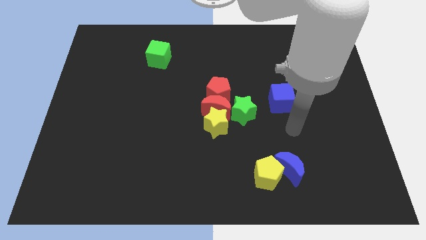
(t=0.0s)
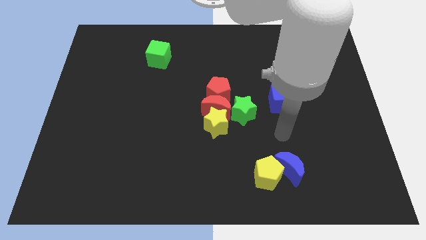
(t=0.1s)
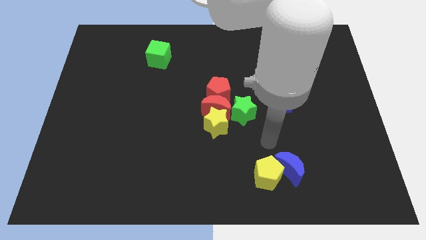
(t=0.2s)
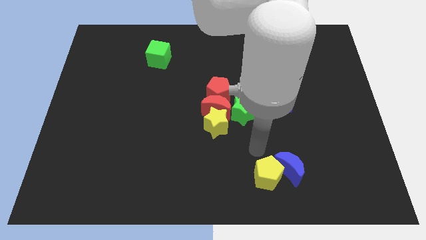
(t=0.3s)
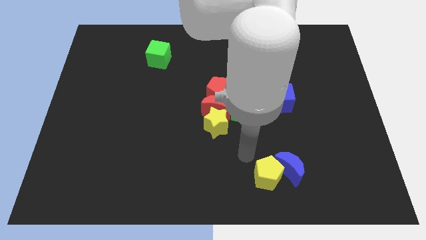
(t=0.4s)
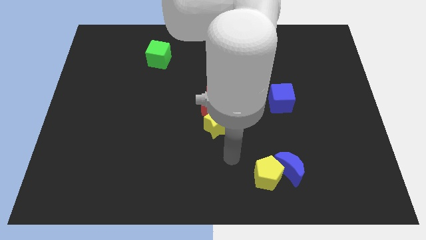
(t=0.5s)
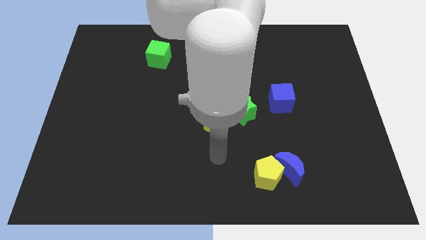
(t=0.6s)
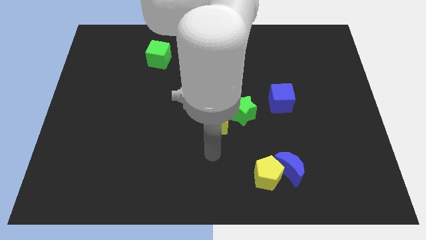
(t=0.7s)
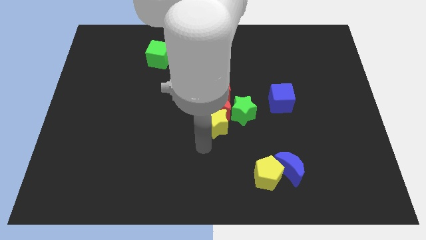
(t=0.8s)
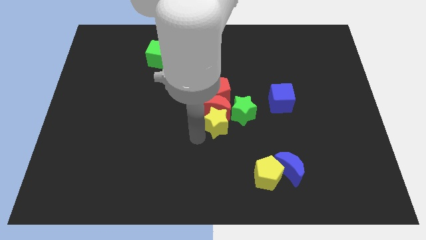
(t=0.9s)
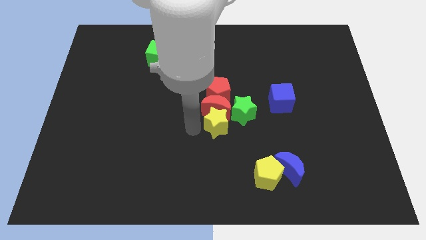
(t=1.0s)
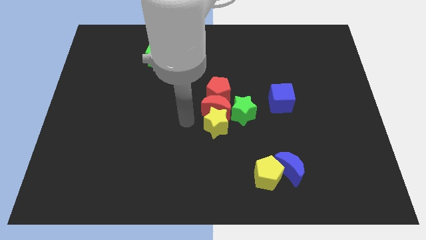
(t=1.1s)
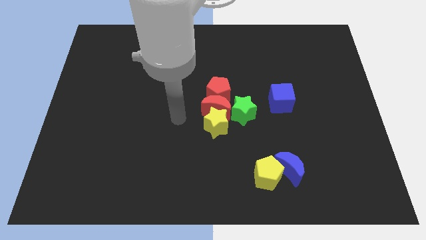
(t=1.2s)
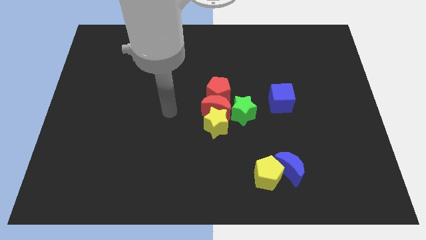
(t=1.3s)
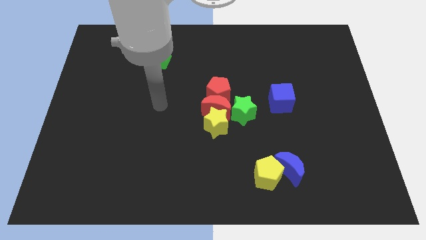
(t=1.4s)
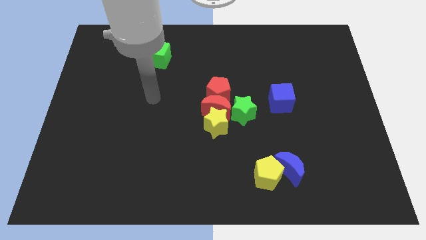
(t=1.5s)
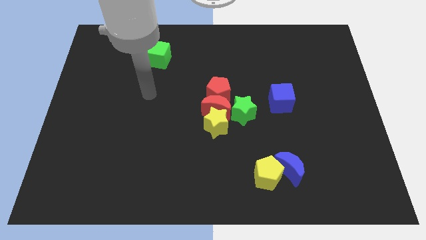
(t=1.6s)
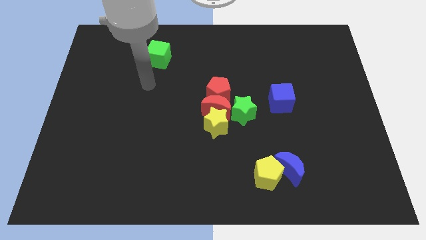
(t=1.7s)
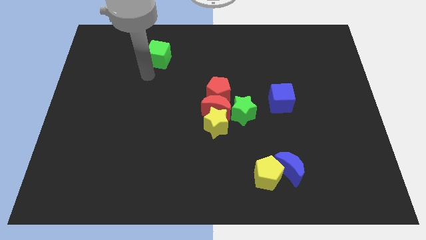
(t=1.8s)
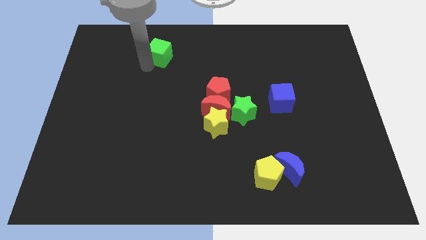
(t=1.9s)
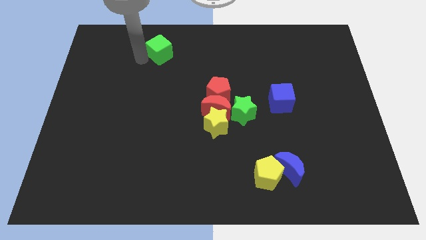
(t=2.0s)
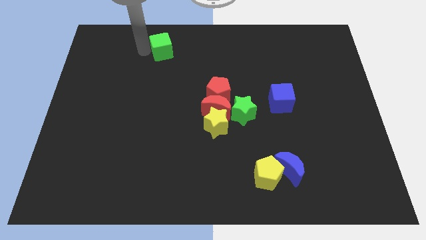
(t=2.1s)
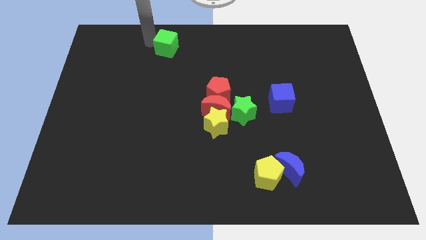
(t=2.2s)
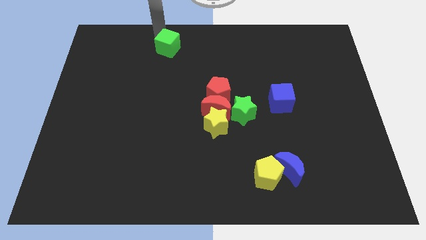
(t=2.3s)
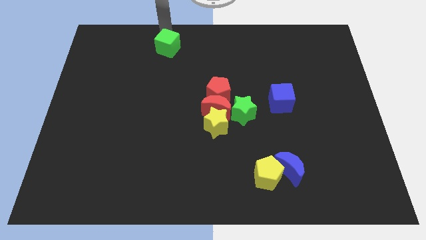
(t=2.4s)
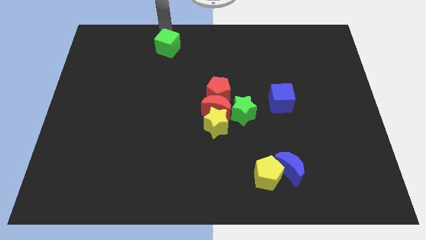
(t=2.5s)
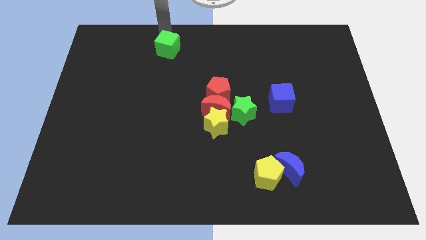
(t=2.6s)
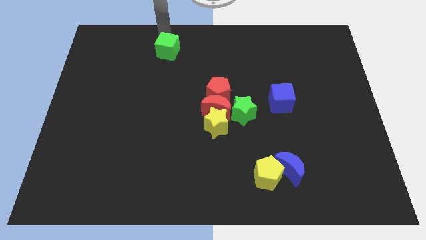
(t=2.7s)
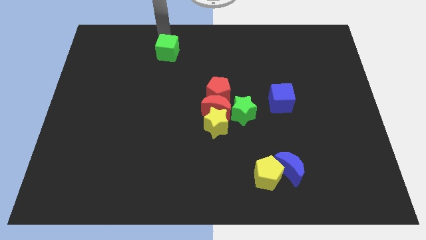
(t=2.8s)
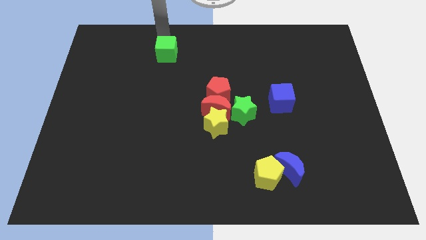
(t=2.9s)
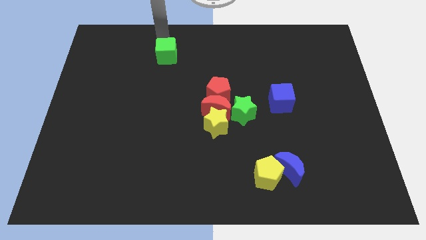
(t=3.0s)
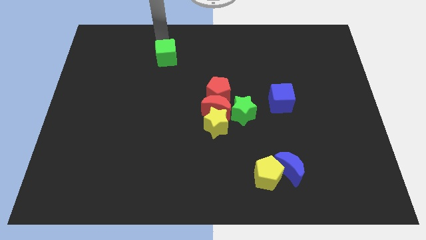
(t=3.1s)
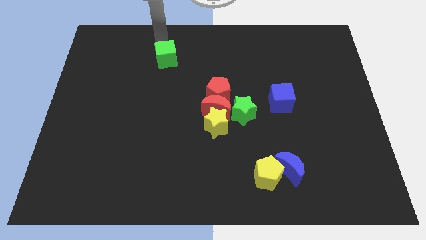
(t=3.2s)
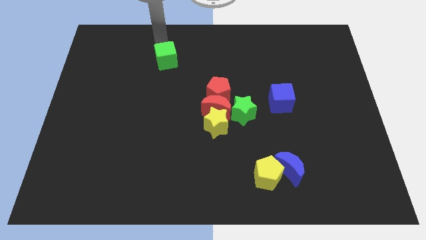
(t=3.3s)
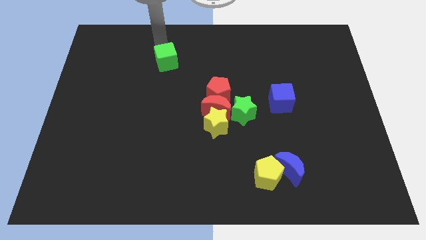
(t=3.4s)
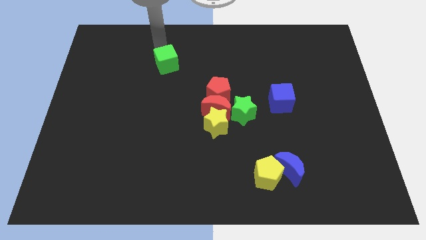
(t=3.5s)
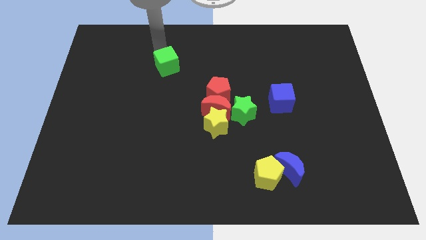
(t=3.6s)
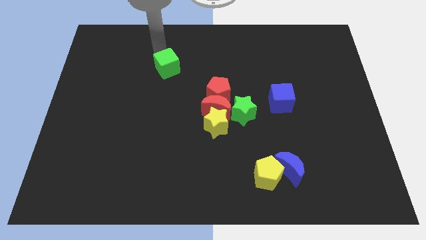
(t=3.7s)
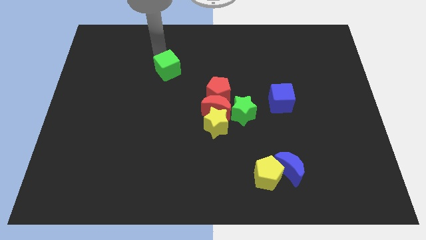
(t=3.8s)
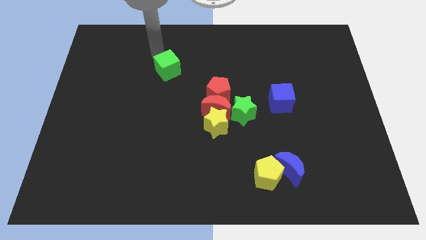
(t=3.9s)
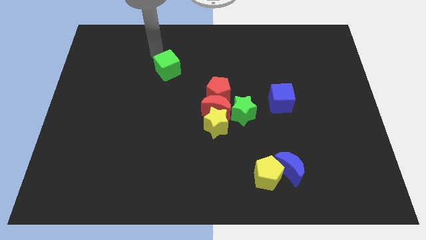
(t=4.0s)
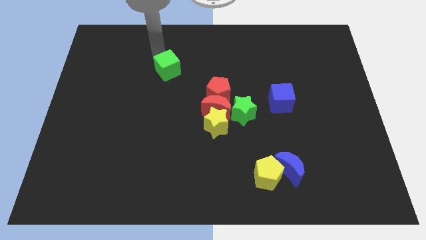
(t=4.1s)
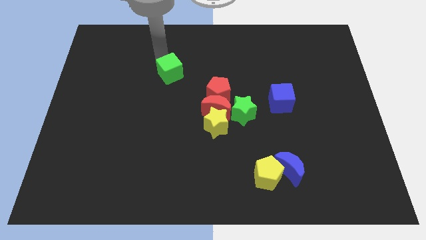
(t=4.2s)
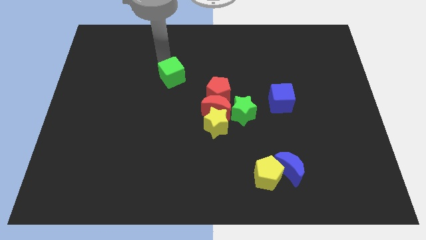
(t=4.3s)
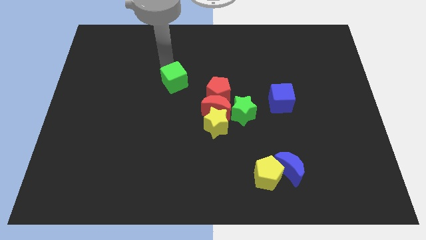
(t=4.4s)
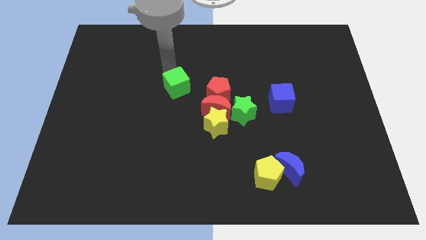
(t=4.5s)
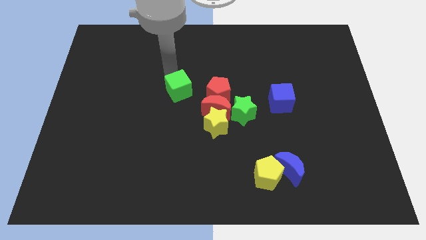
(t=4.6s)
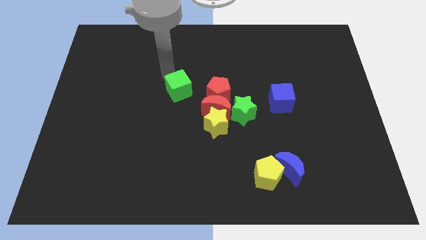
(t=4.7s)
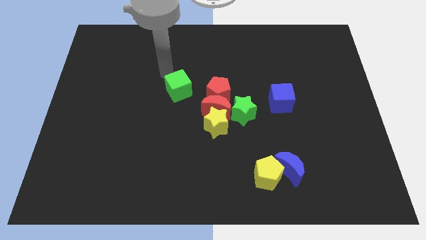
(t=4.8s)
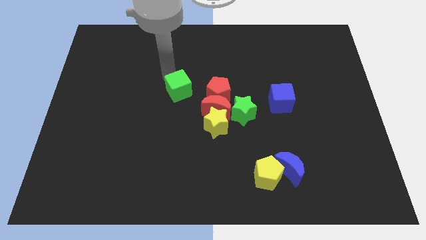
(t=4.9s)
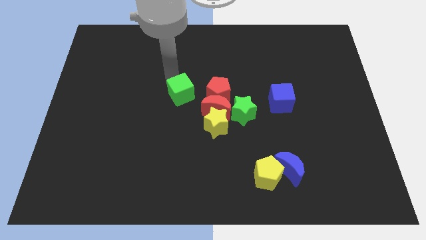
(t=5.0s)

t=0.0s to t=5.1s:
put the green cube to the top left of the yellow star

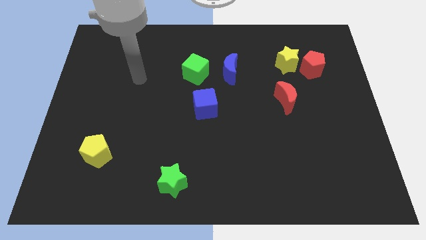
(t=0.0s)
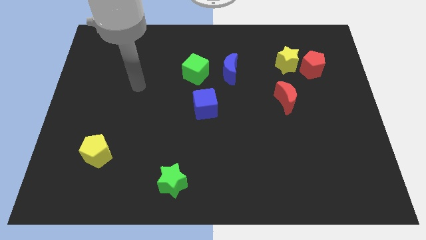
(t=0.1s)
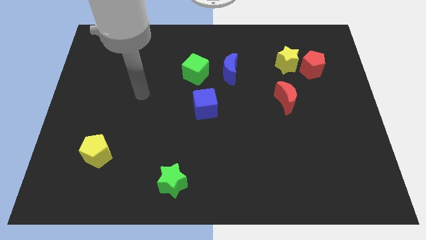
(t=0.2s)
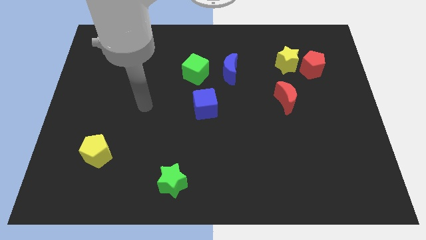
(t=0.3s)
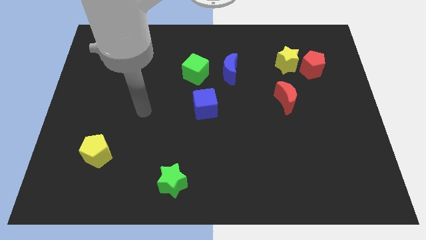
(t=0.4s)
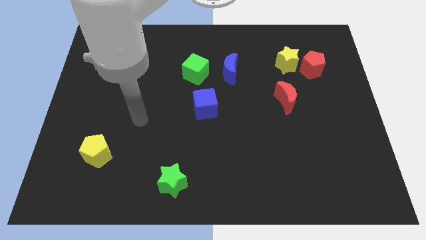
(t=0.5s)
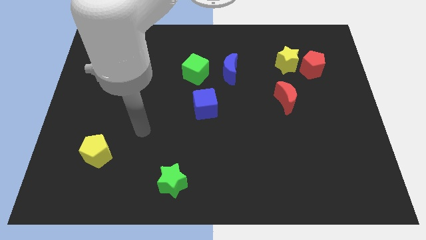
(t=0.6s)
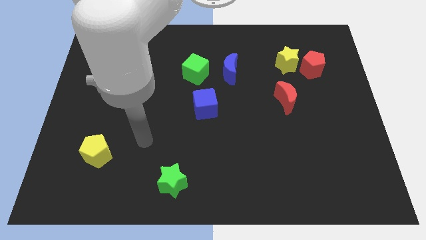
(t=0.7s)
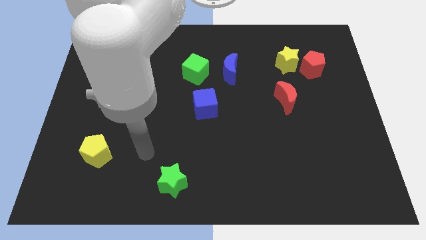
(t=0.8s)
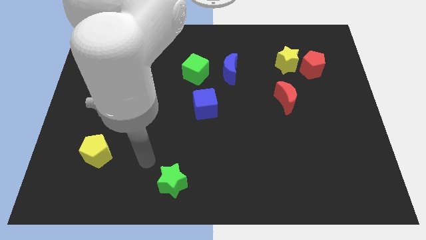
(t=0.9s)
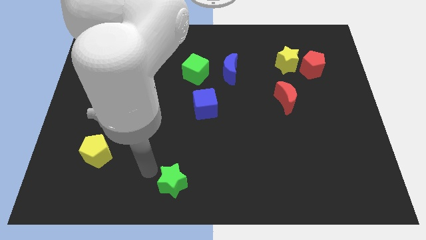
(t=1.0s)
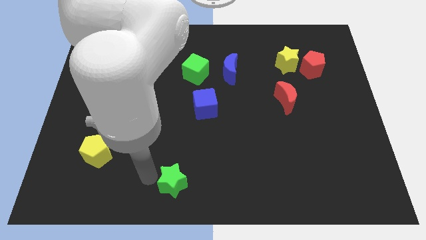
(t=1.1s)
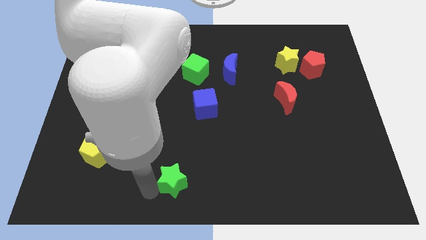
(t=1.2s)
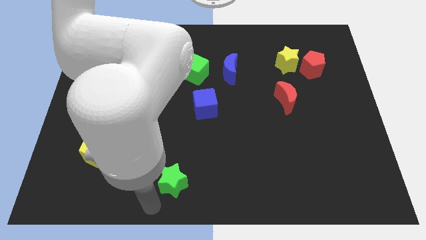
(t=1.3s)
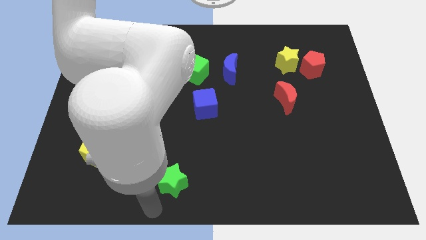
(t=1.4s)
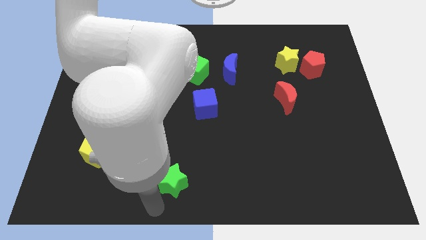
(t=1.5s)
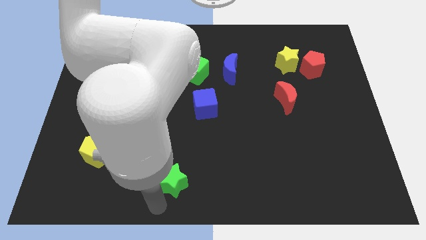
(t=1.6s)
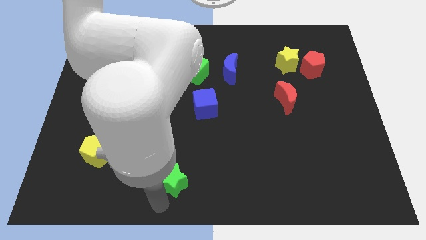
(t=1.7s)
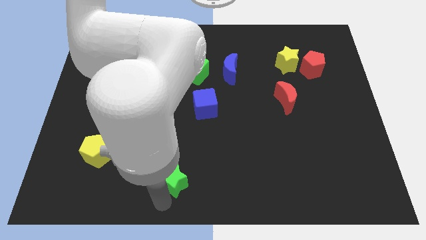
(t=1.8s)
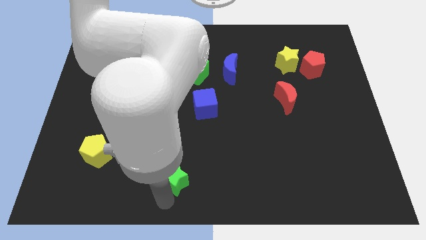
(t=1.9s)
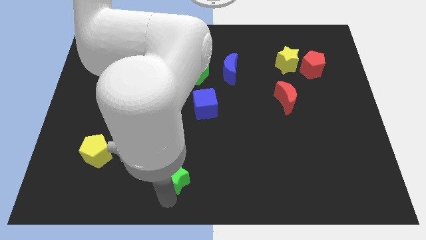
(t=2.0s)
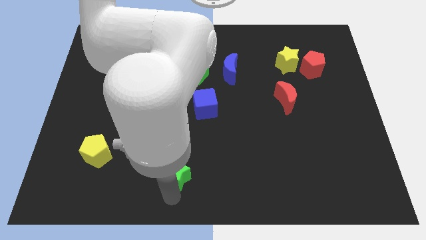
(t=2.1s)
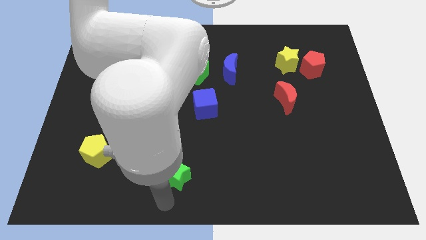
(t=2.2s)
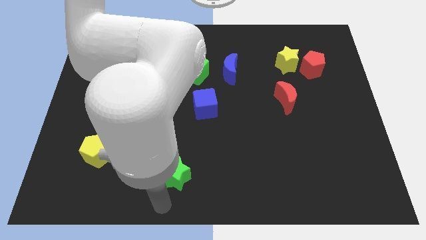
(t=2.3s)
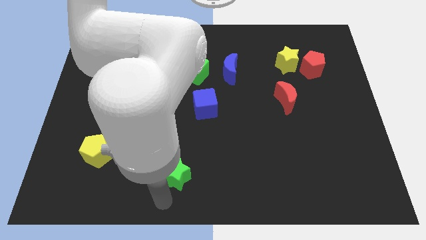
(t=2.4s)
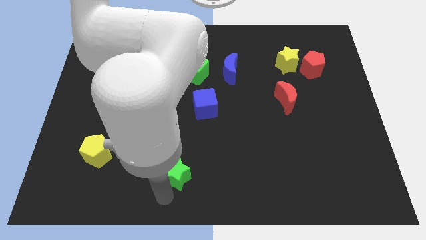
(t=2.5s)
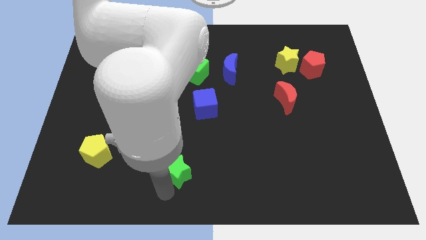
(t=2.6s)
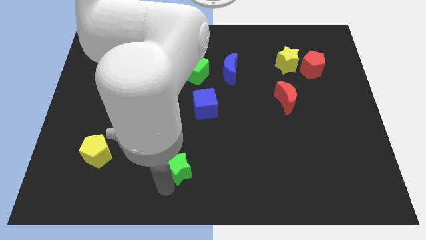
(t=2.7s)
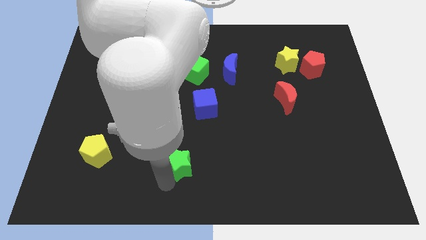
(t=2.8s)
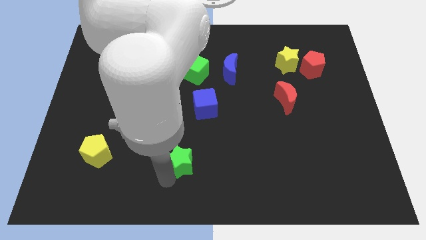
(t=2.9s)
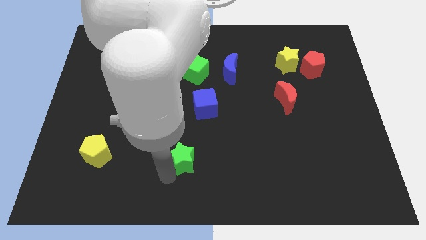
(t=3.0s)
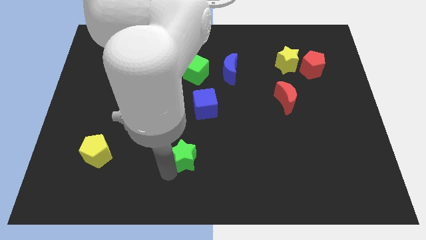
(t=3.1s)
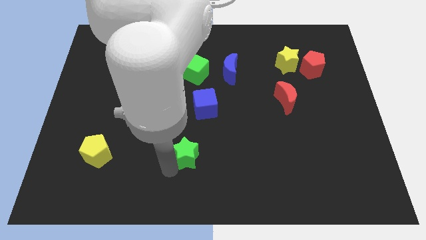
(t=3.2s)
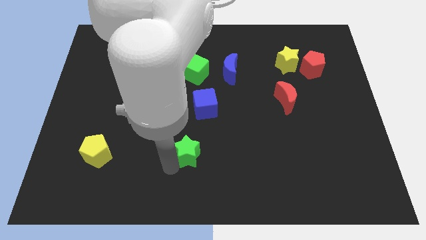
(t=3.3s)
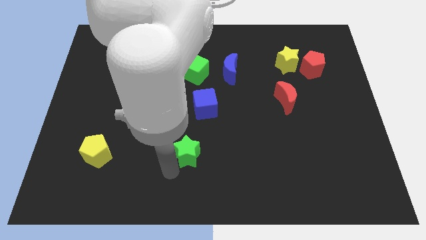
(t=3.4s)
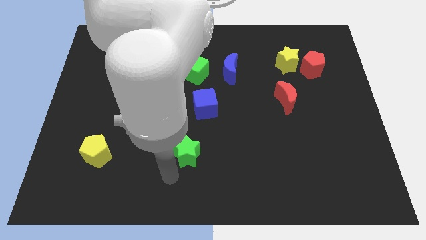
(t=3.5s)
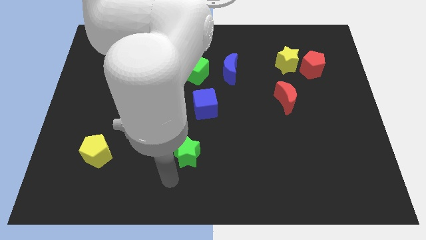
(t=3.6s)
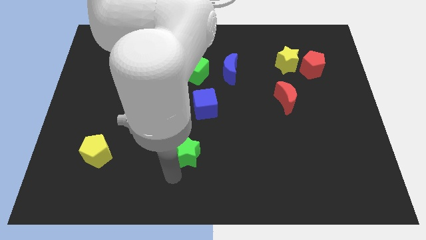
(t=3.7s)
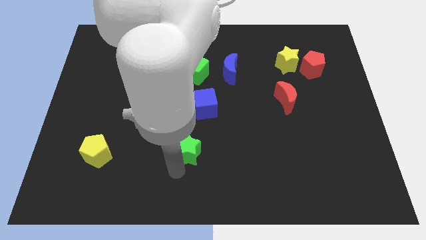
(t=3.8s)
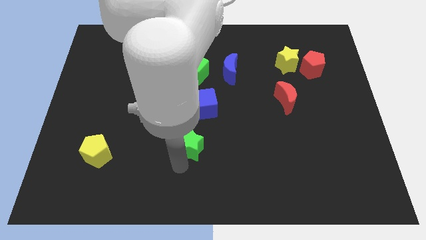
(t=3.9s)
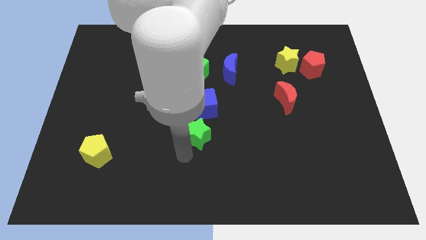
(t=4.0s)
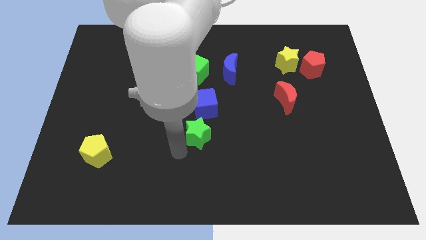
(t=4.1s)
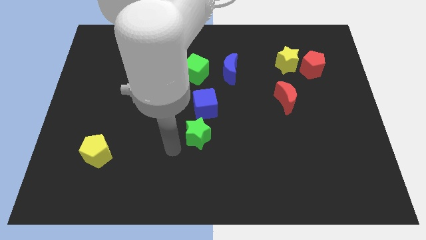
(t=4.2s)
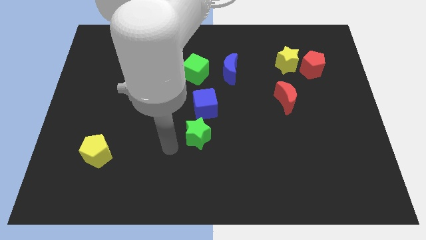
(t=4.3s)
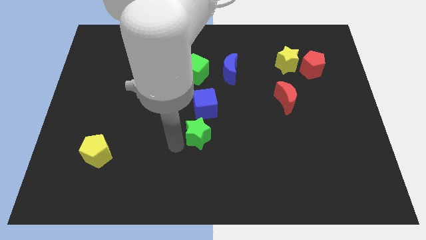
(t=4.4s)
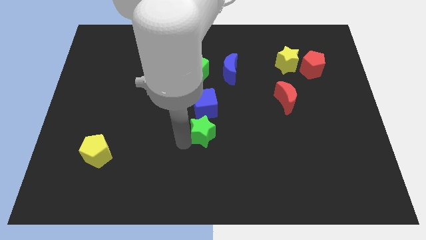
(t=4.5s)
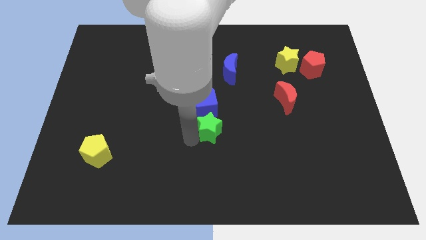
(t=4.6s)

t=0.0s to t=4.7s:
push the green star to the bottom right of the blue cube
